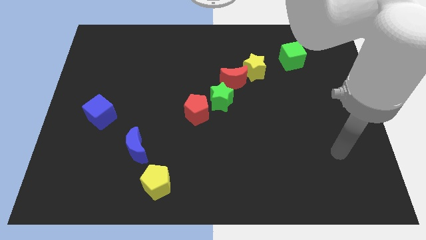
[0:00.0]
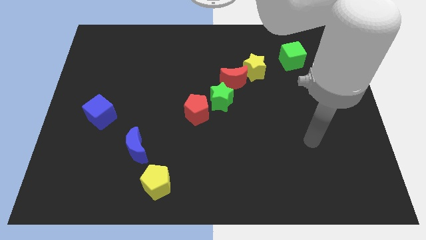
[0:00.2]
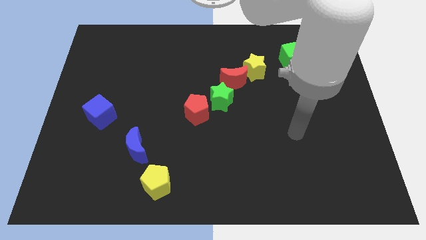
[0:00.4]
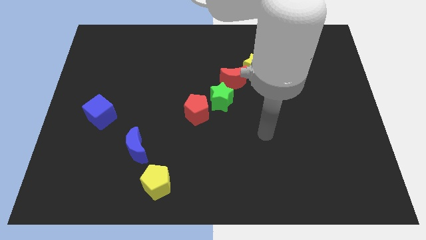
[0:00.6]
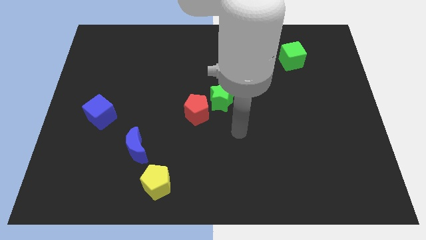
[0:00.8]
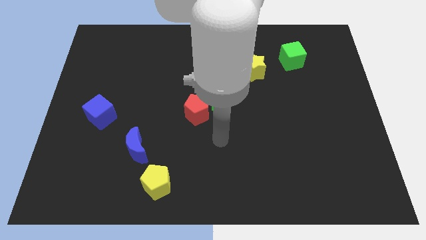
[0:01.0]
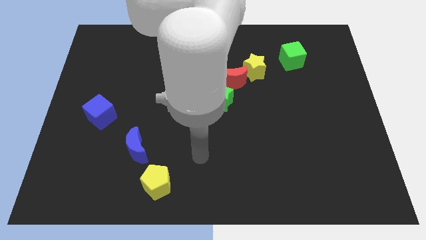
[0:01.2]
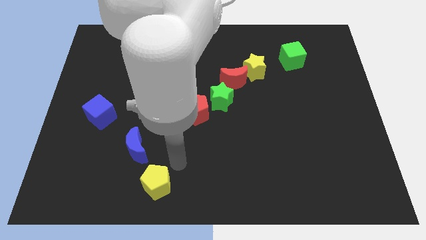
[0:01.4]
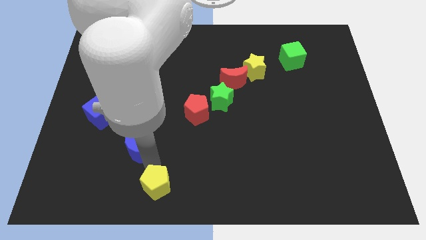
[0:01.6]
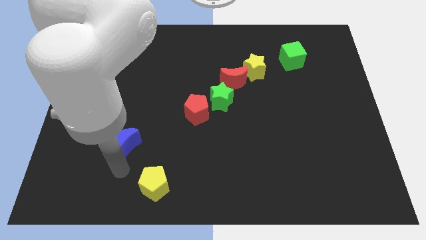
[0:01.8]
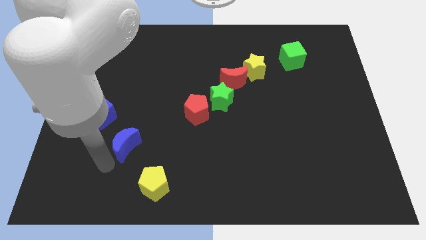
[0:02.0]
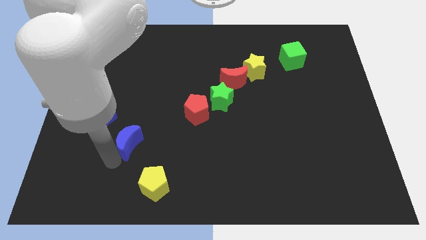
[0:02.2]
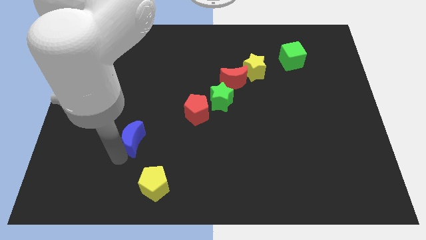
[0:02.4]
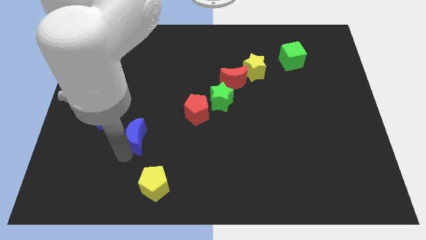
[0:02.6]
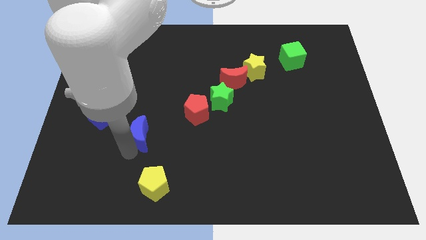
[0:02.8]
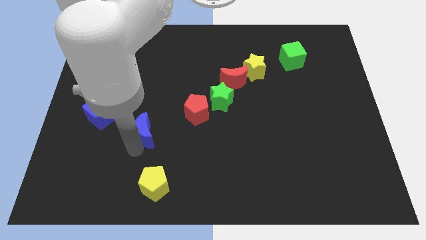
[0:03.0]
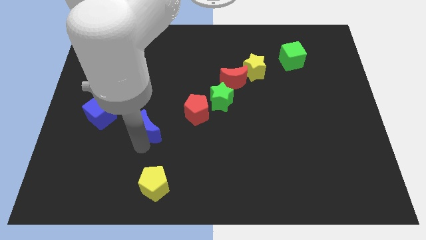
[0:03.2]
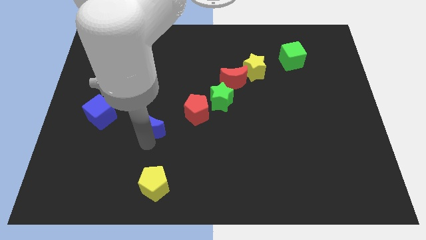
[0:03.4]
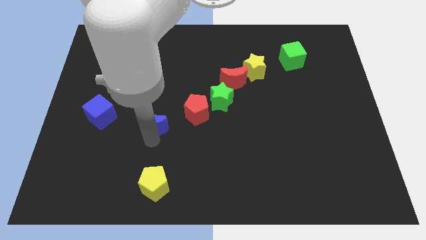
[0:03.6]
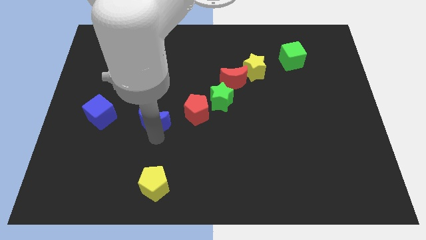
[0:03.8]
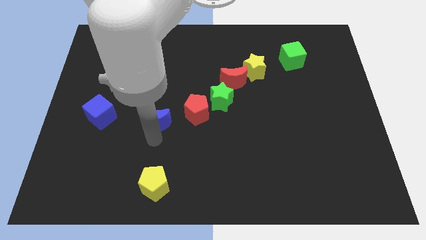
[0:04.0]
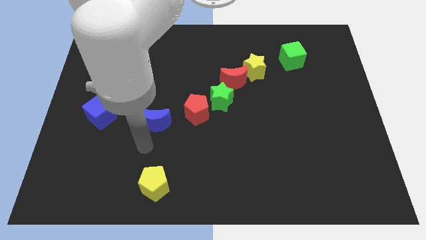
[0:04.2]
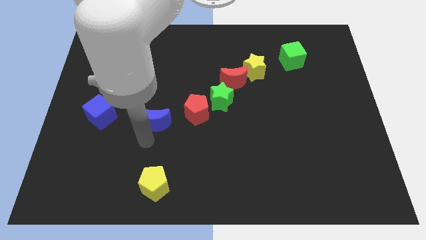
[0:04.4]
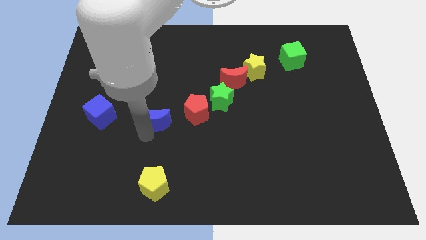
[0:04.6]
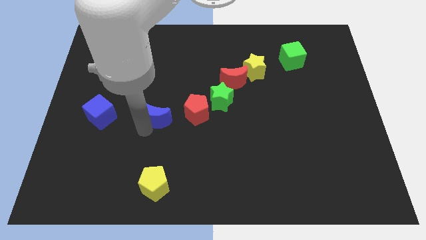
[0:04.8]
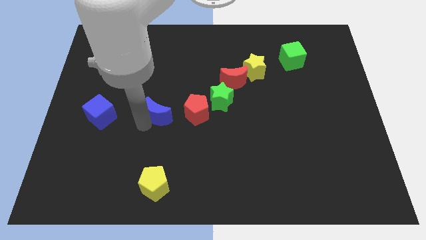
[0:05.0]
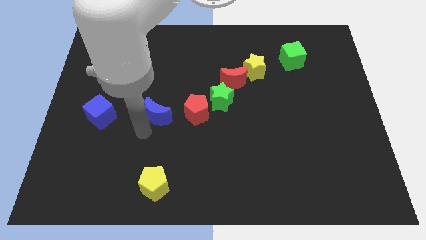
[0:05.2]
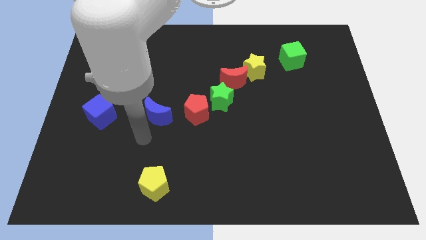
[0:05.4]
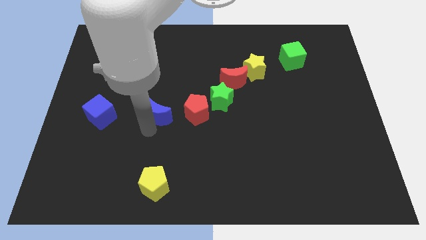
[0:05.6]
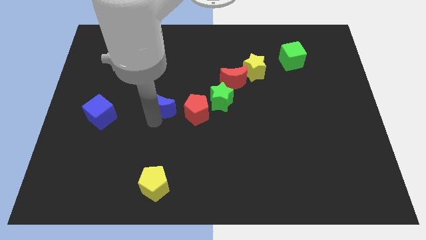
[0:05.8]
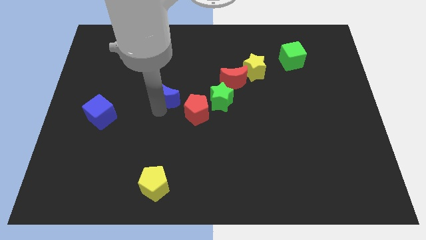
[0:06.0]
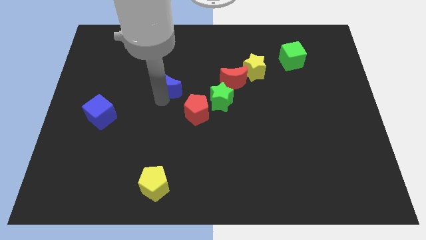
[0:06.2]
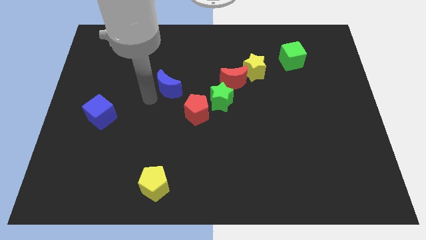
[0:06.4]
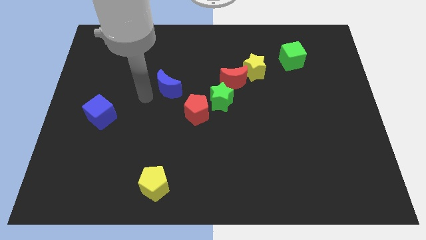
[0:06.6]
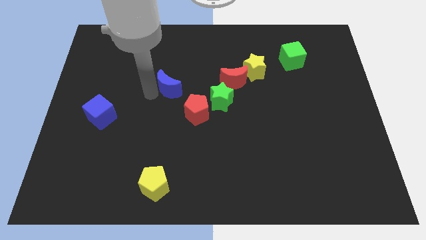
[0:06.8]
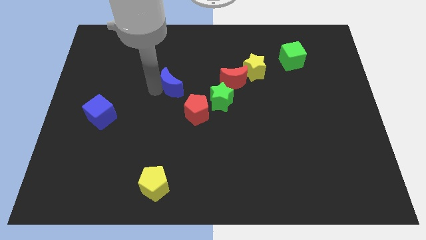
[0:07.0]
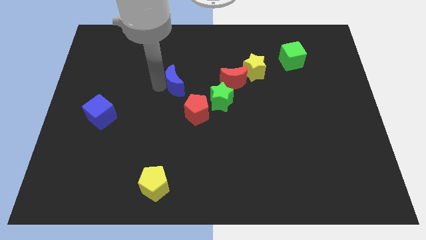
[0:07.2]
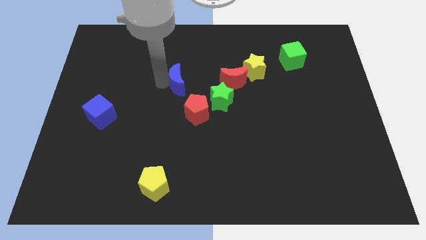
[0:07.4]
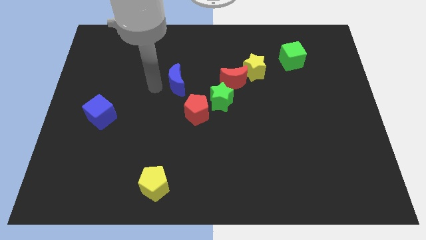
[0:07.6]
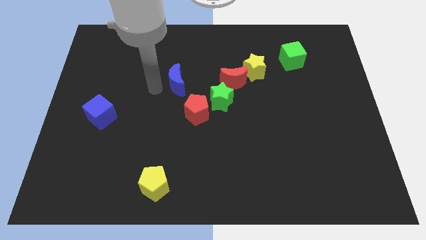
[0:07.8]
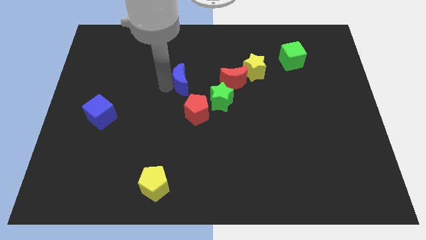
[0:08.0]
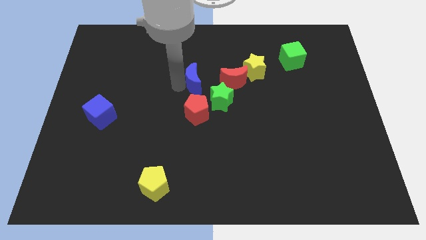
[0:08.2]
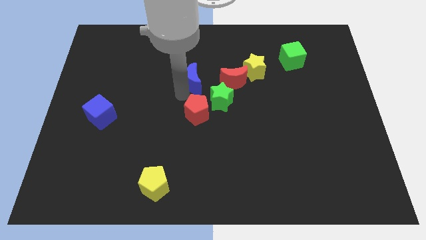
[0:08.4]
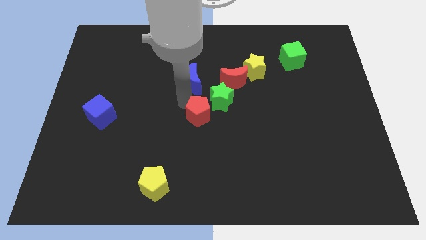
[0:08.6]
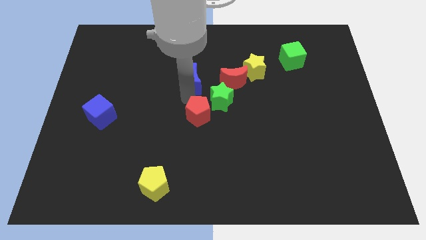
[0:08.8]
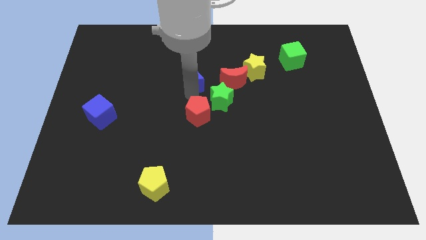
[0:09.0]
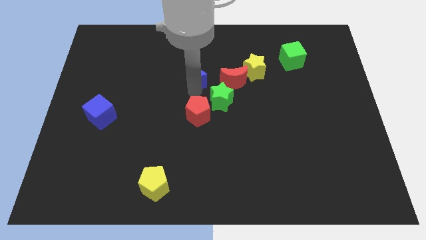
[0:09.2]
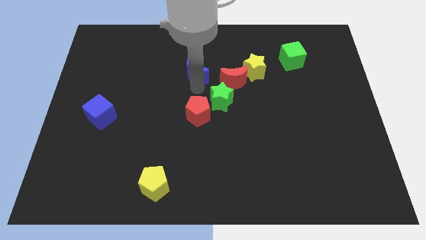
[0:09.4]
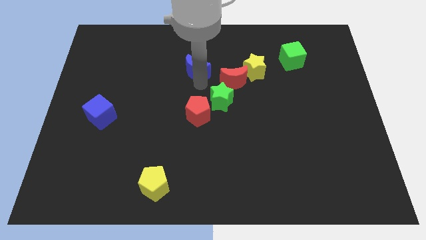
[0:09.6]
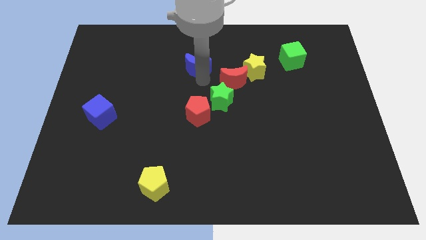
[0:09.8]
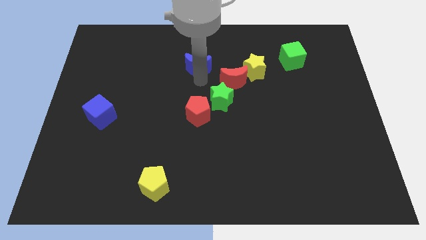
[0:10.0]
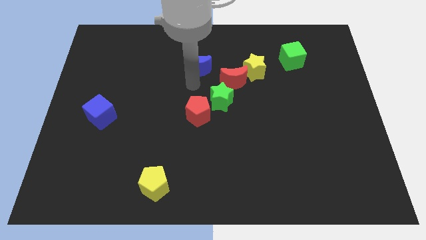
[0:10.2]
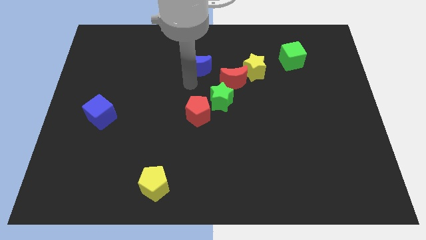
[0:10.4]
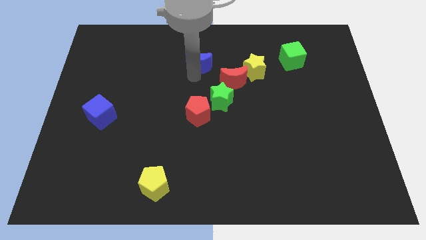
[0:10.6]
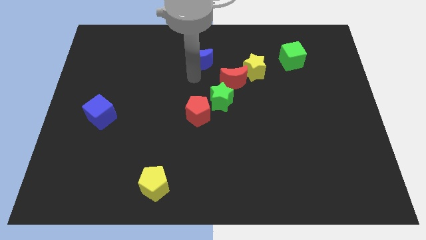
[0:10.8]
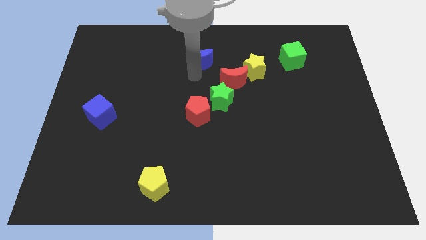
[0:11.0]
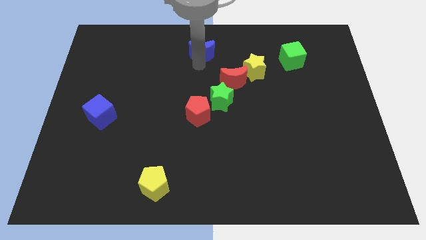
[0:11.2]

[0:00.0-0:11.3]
put the blue moon to the top

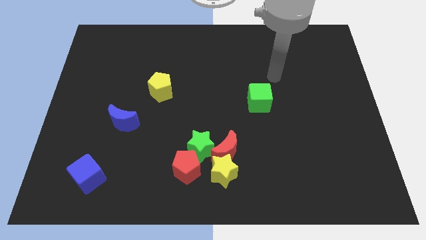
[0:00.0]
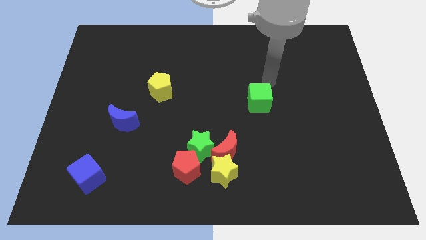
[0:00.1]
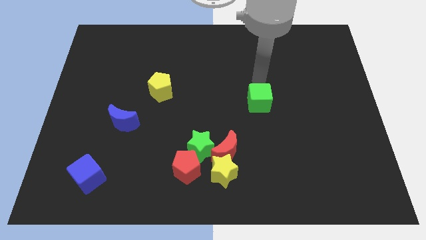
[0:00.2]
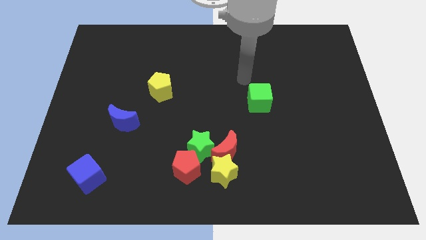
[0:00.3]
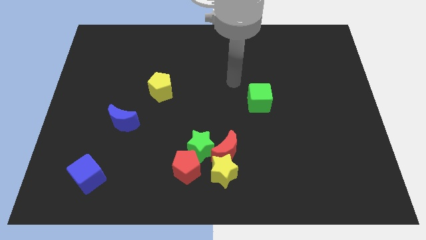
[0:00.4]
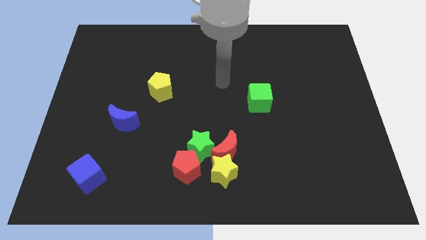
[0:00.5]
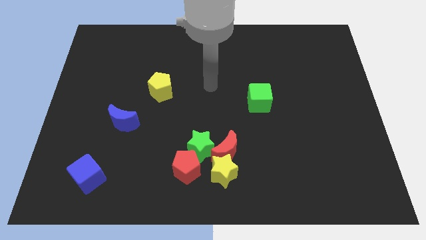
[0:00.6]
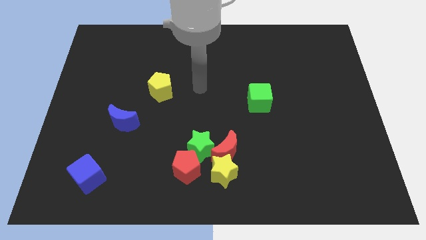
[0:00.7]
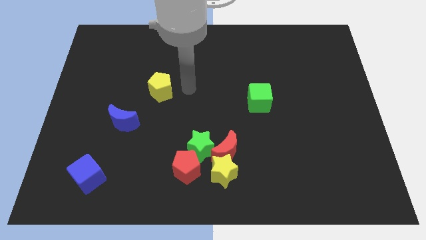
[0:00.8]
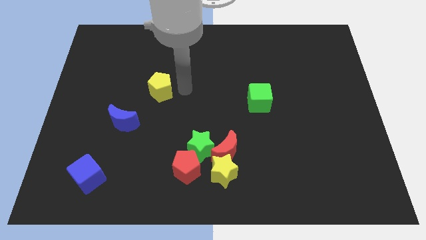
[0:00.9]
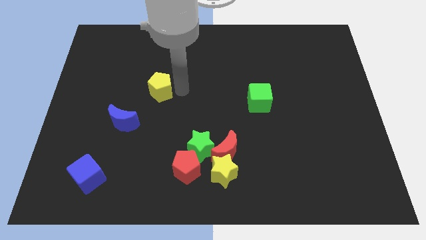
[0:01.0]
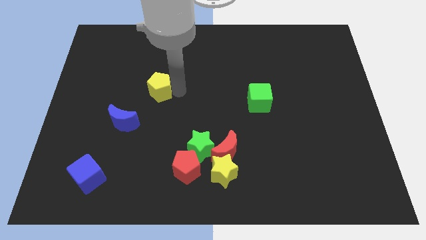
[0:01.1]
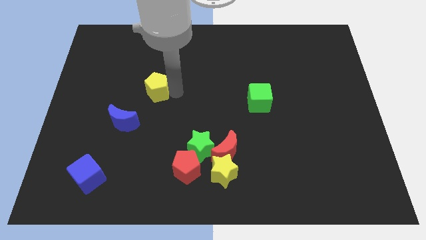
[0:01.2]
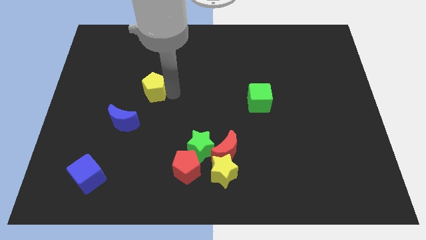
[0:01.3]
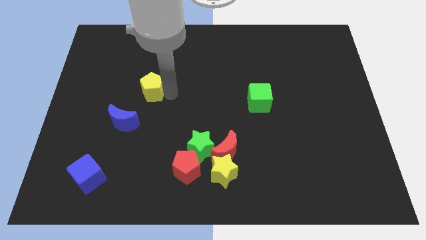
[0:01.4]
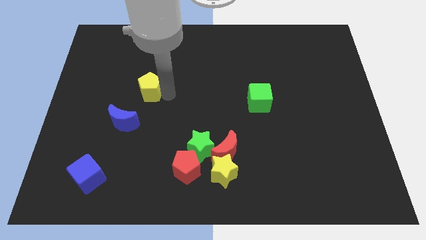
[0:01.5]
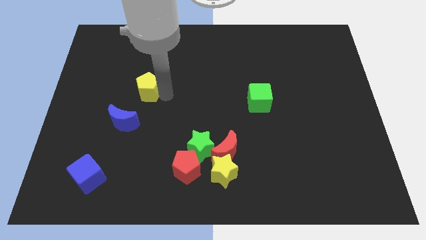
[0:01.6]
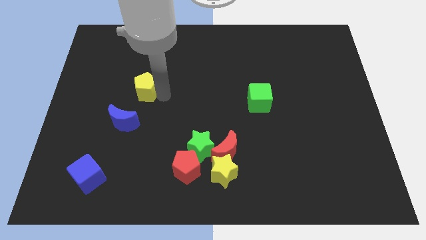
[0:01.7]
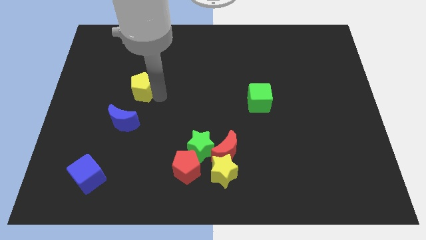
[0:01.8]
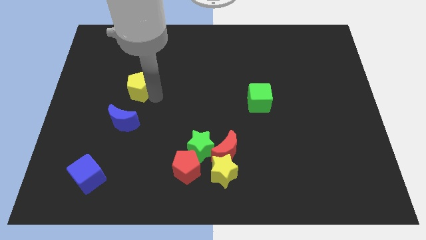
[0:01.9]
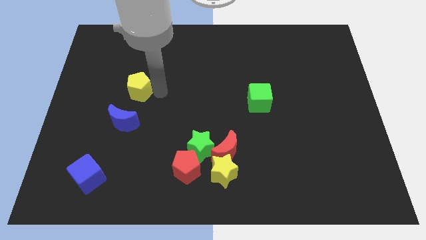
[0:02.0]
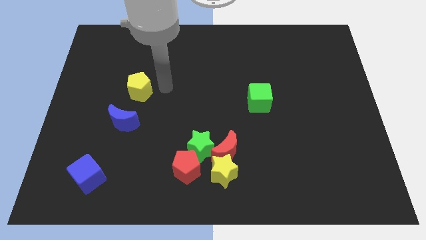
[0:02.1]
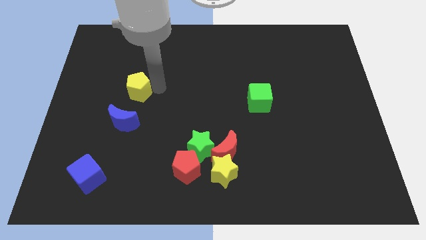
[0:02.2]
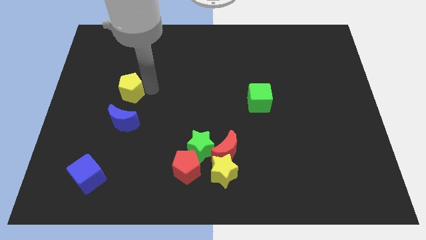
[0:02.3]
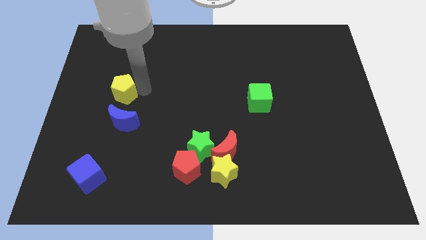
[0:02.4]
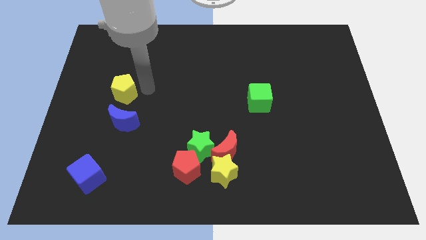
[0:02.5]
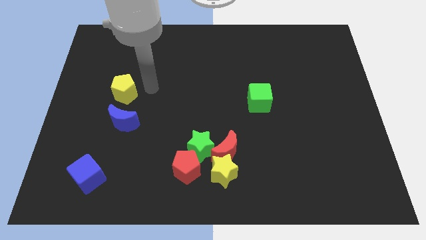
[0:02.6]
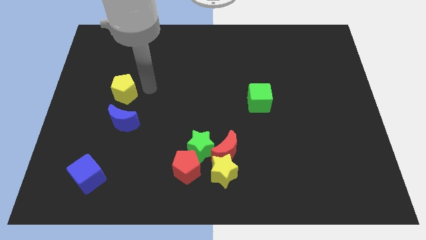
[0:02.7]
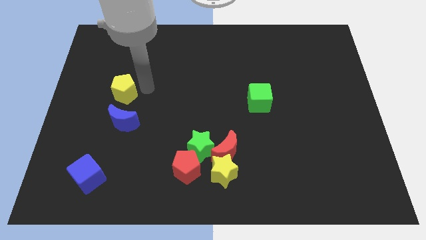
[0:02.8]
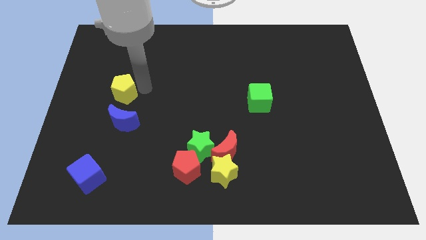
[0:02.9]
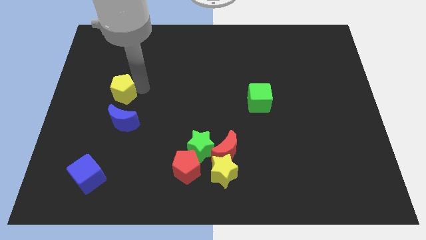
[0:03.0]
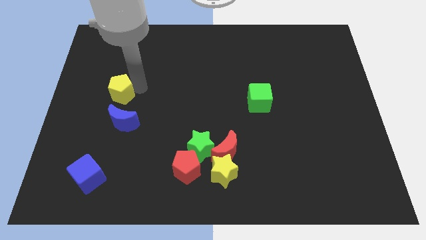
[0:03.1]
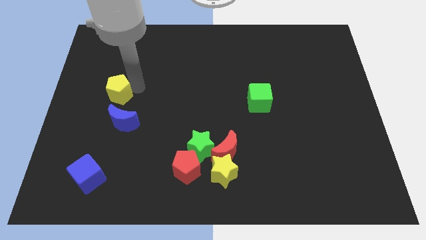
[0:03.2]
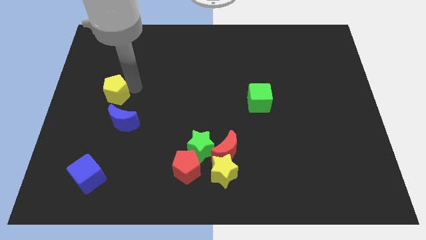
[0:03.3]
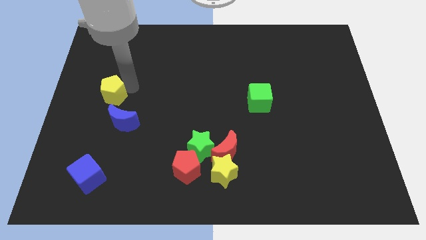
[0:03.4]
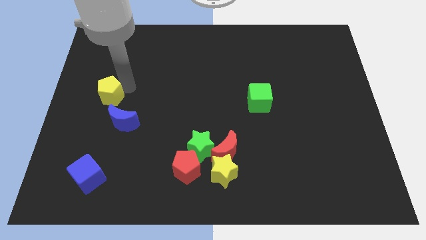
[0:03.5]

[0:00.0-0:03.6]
push the yellow pentagon to the left side
